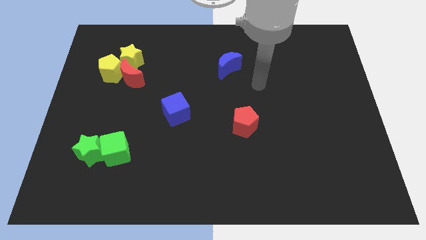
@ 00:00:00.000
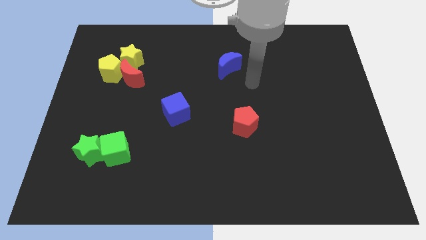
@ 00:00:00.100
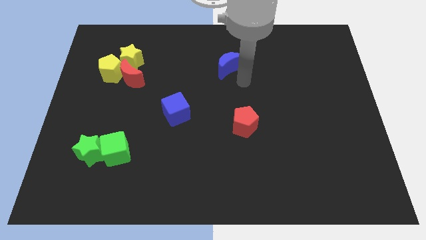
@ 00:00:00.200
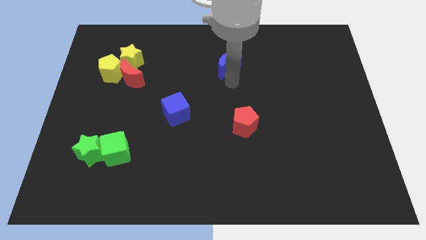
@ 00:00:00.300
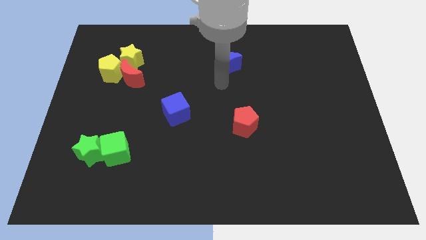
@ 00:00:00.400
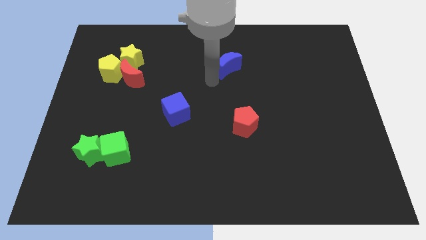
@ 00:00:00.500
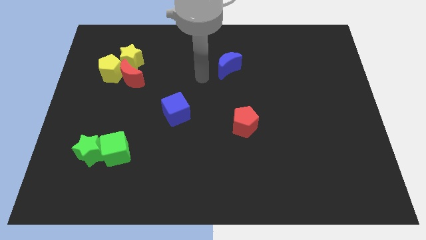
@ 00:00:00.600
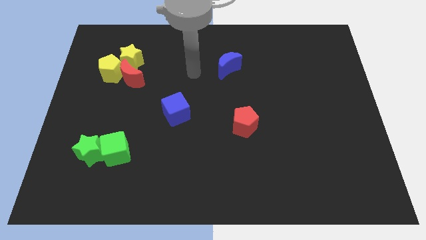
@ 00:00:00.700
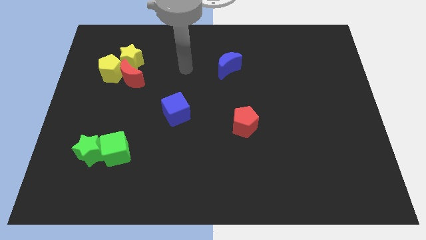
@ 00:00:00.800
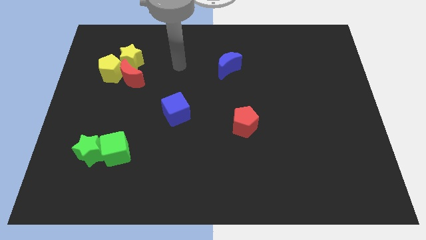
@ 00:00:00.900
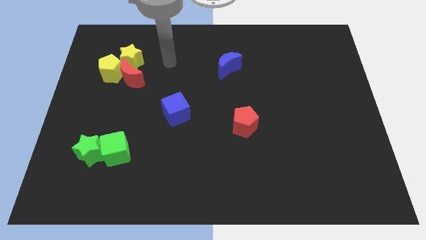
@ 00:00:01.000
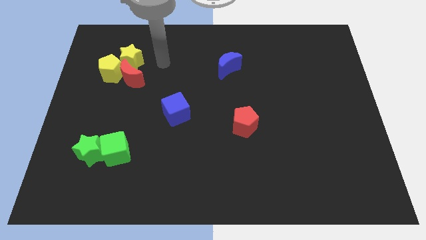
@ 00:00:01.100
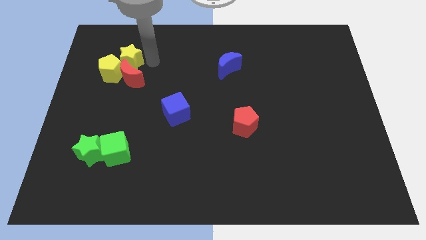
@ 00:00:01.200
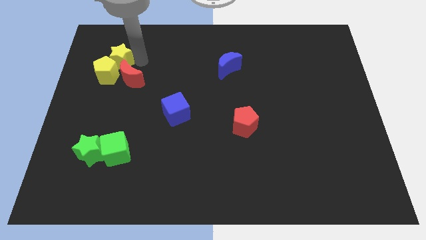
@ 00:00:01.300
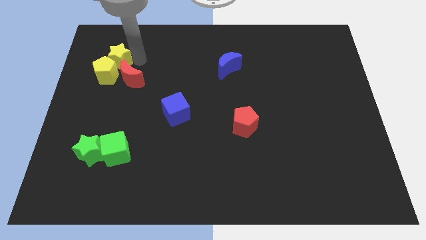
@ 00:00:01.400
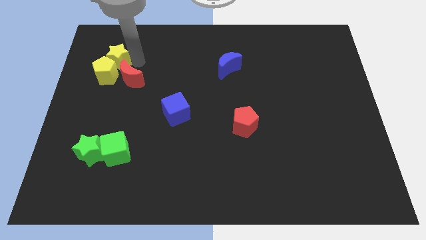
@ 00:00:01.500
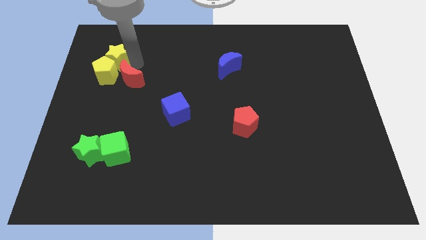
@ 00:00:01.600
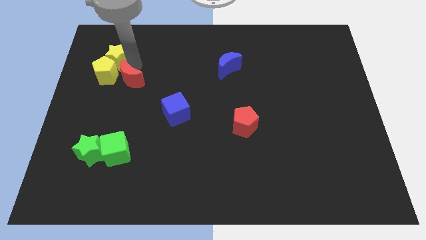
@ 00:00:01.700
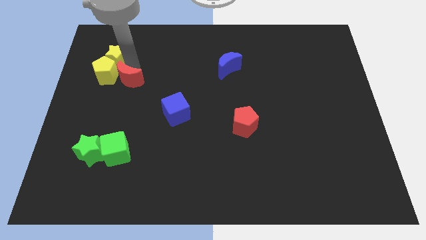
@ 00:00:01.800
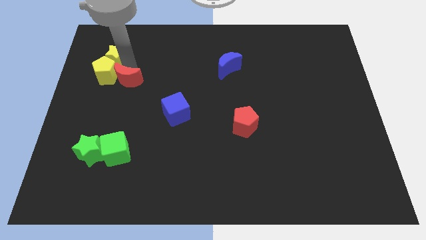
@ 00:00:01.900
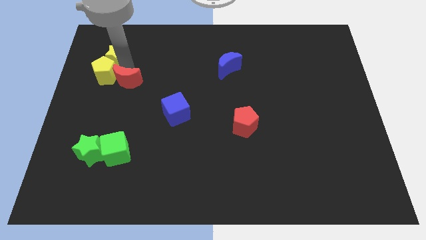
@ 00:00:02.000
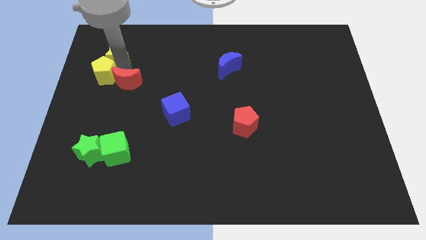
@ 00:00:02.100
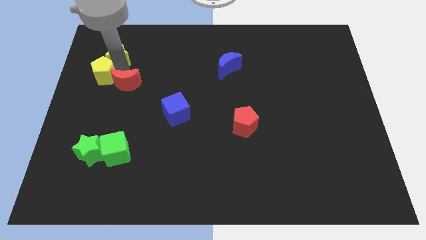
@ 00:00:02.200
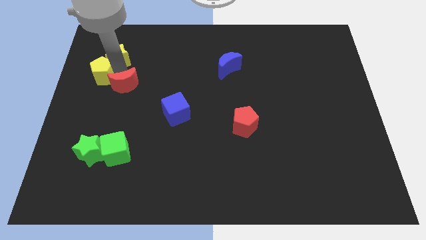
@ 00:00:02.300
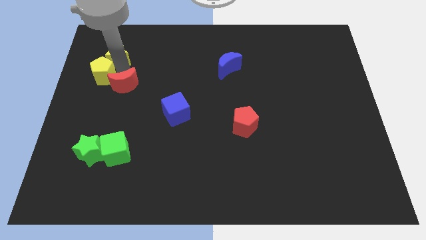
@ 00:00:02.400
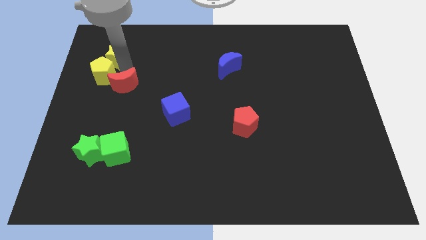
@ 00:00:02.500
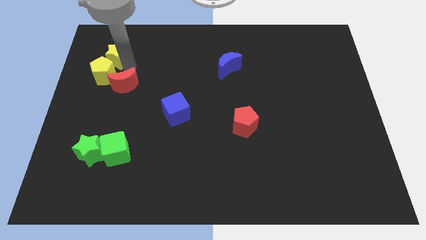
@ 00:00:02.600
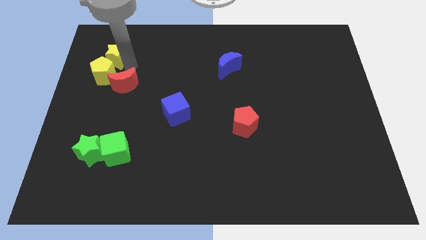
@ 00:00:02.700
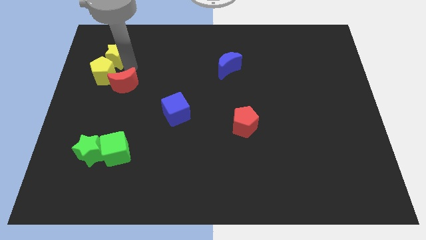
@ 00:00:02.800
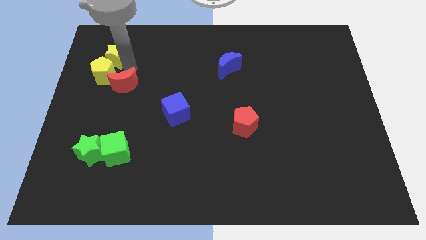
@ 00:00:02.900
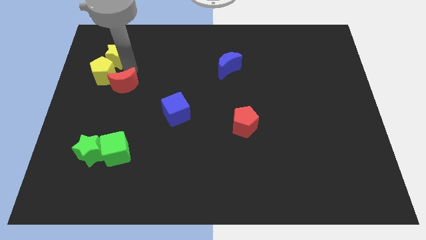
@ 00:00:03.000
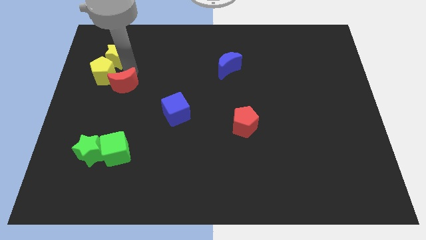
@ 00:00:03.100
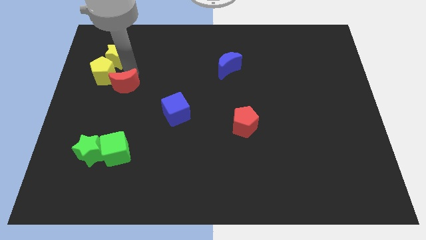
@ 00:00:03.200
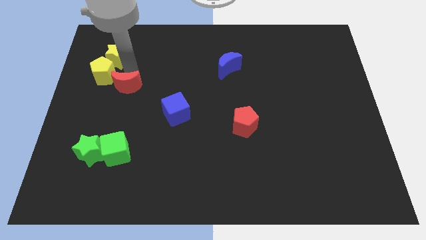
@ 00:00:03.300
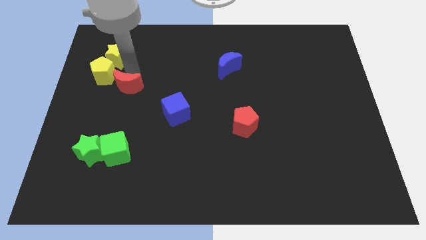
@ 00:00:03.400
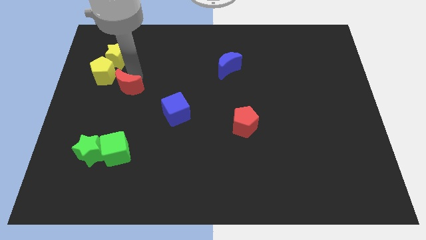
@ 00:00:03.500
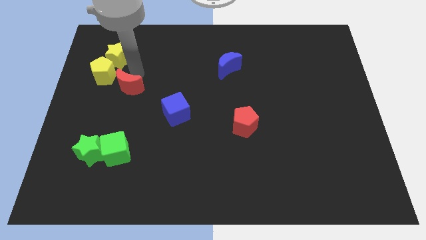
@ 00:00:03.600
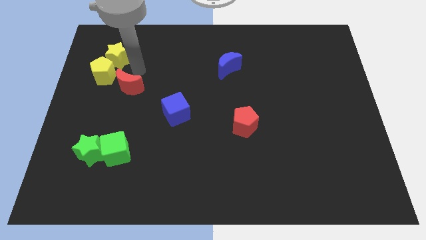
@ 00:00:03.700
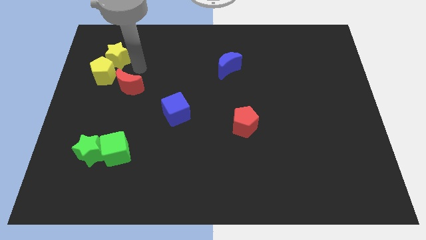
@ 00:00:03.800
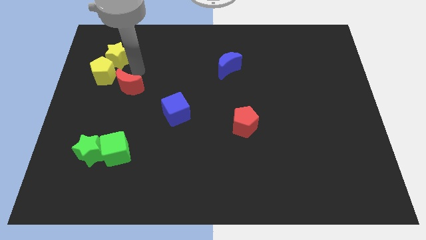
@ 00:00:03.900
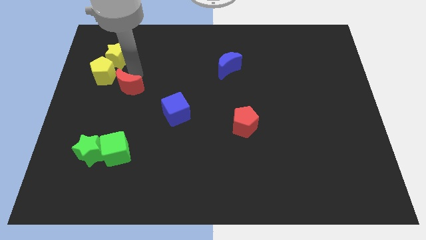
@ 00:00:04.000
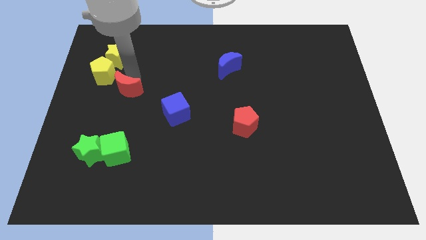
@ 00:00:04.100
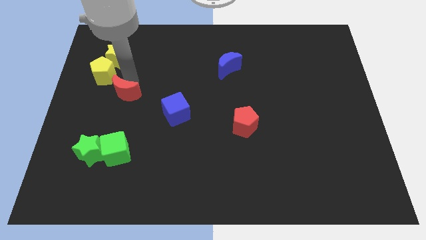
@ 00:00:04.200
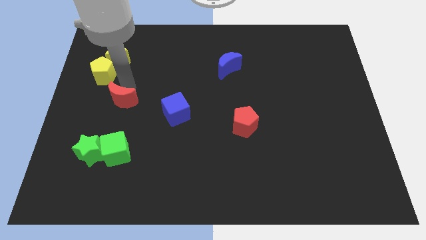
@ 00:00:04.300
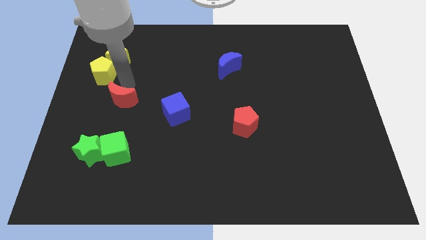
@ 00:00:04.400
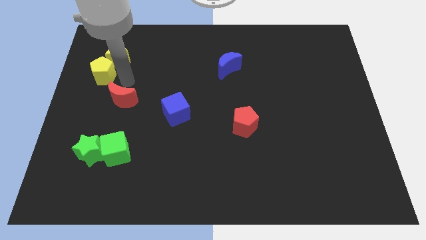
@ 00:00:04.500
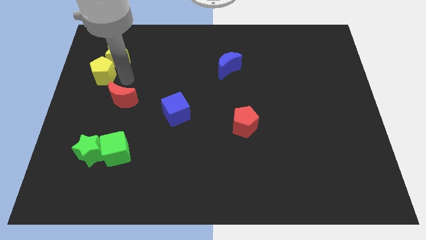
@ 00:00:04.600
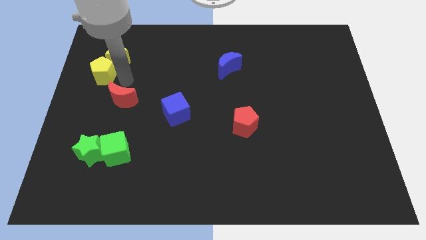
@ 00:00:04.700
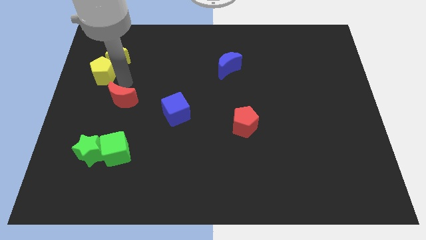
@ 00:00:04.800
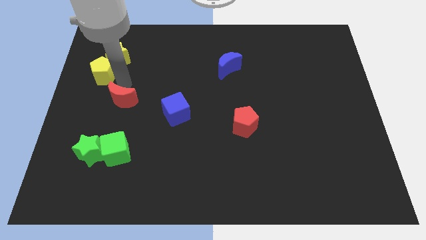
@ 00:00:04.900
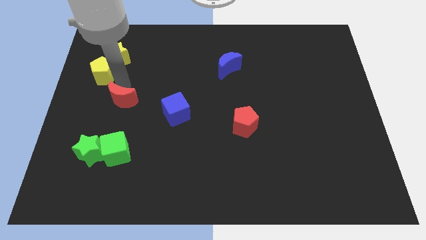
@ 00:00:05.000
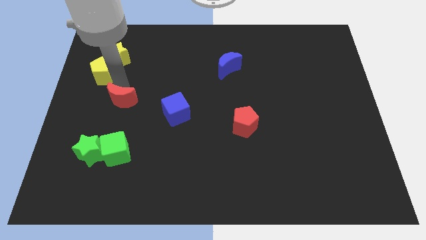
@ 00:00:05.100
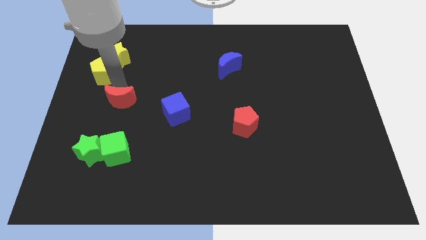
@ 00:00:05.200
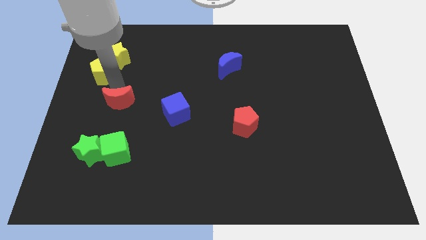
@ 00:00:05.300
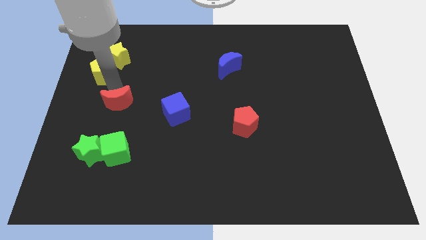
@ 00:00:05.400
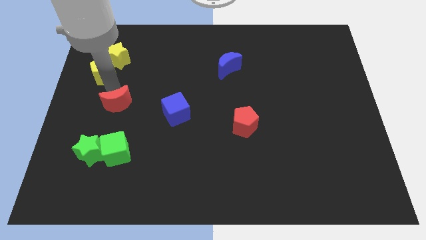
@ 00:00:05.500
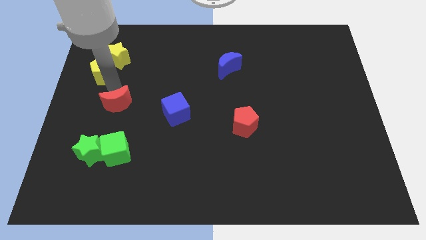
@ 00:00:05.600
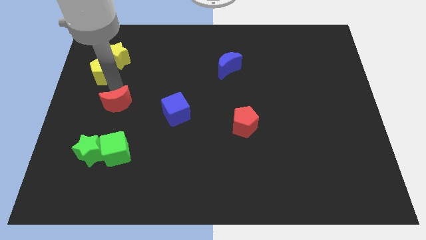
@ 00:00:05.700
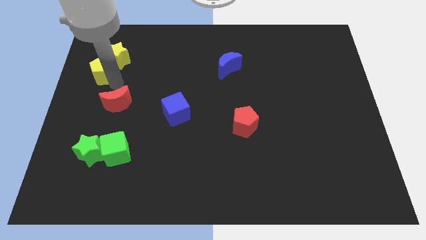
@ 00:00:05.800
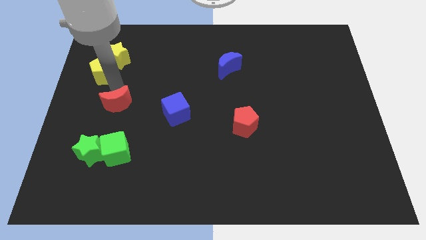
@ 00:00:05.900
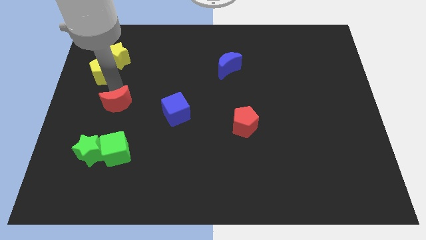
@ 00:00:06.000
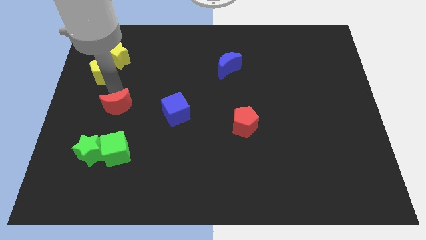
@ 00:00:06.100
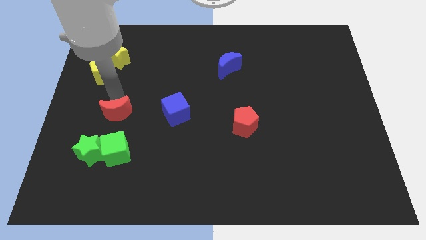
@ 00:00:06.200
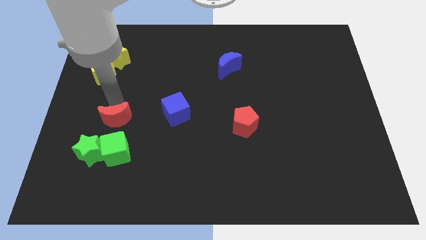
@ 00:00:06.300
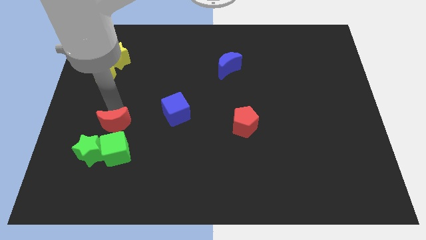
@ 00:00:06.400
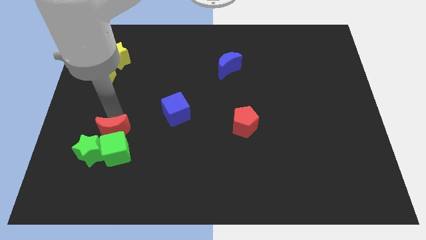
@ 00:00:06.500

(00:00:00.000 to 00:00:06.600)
push the red moon towards the green cube

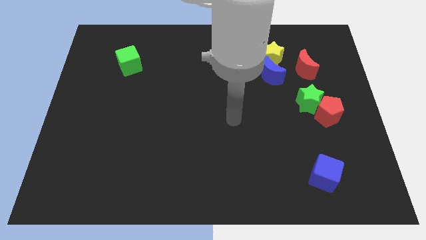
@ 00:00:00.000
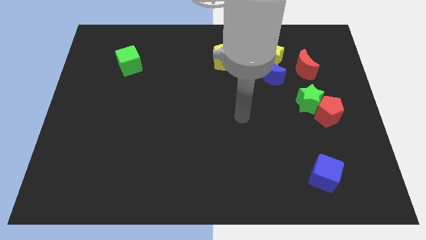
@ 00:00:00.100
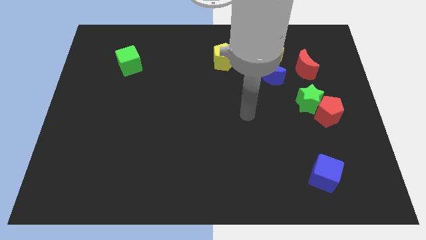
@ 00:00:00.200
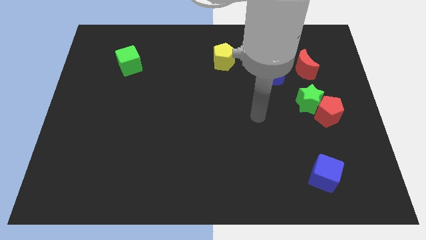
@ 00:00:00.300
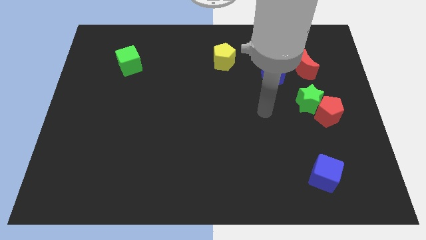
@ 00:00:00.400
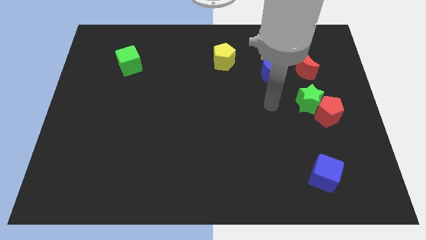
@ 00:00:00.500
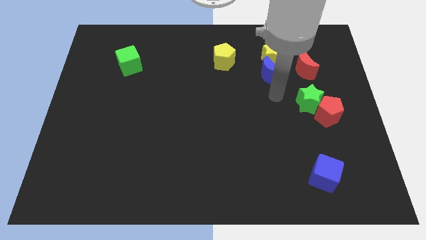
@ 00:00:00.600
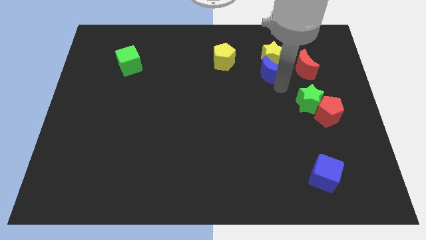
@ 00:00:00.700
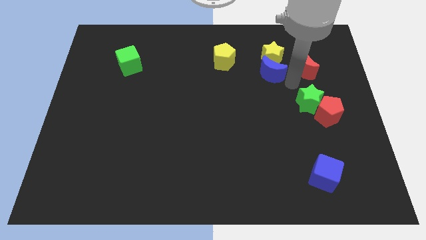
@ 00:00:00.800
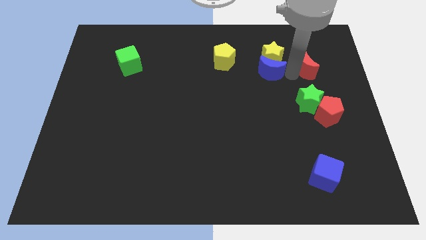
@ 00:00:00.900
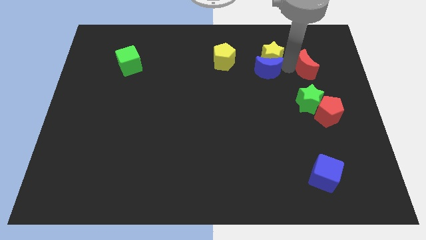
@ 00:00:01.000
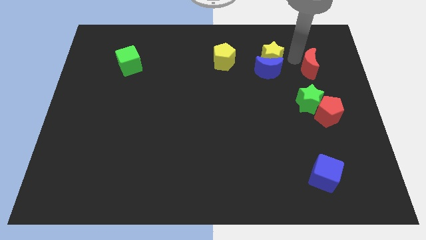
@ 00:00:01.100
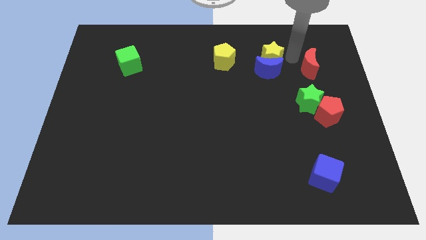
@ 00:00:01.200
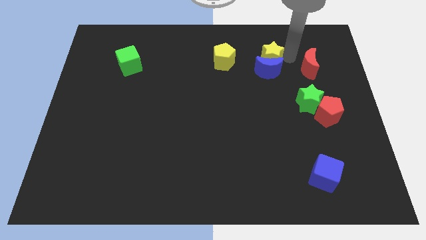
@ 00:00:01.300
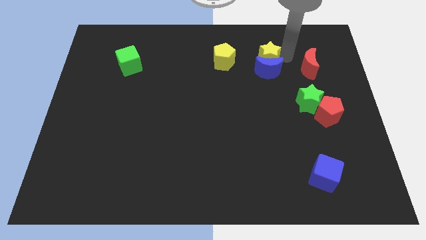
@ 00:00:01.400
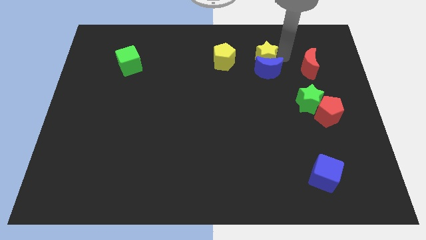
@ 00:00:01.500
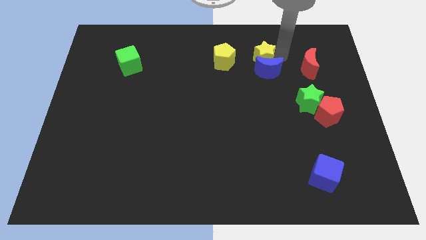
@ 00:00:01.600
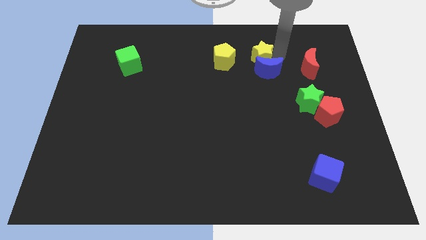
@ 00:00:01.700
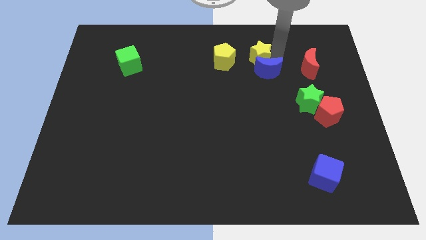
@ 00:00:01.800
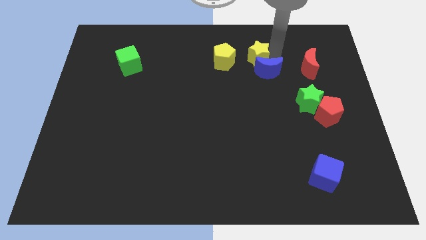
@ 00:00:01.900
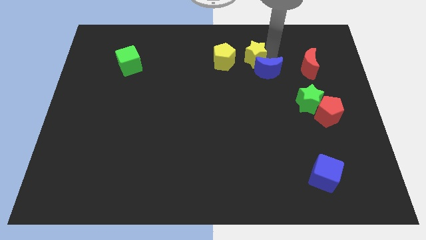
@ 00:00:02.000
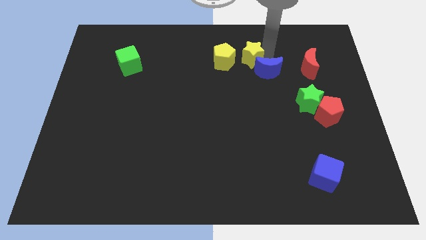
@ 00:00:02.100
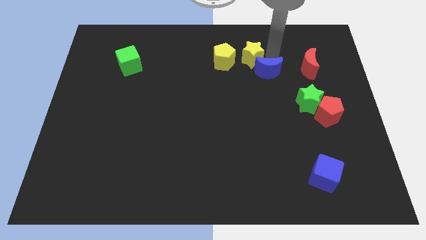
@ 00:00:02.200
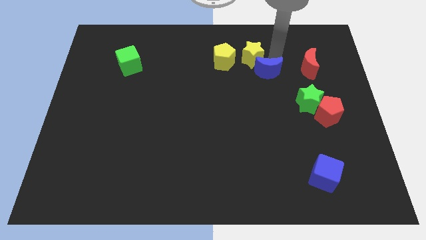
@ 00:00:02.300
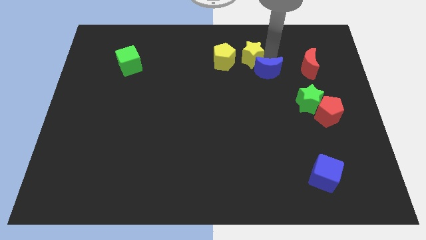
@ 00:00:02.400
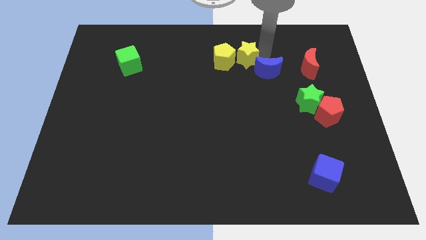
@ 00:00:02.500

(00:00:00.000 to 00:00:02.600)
move the yellow star close to the yellow pentagon
